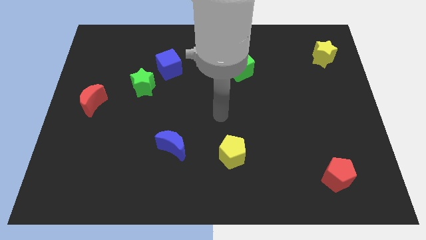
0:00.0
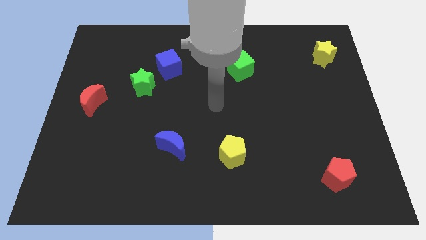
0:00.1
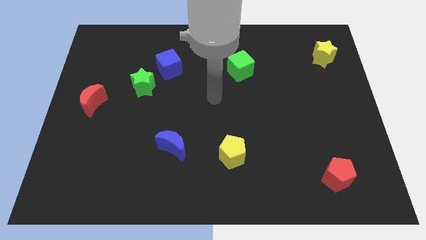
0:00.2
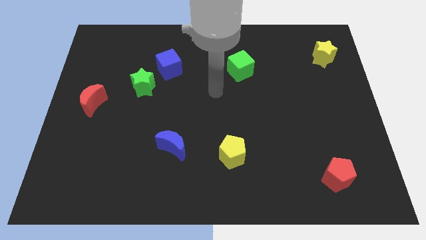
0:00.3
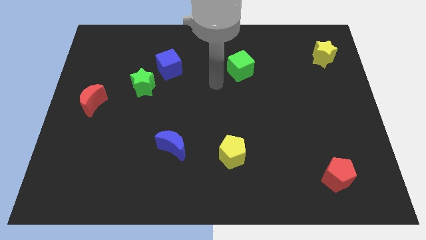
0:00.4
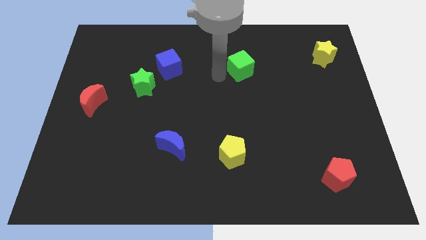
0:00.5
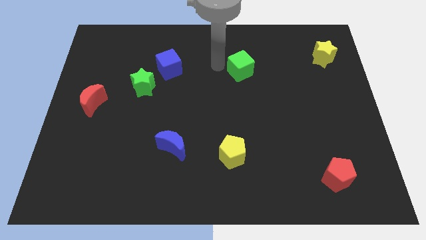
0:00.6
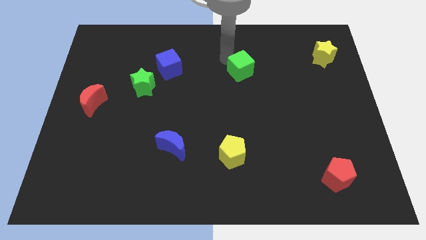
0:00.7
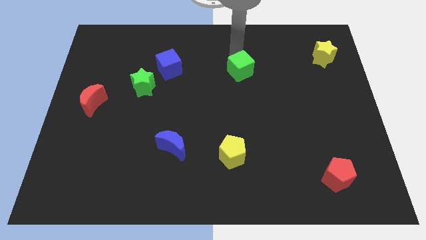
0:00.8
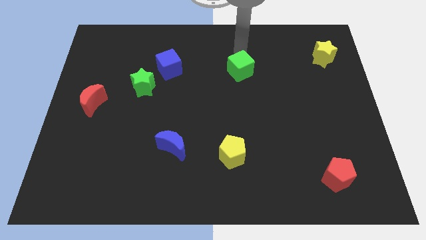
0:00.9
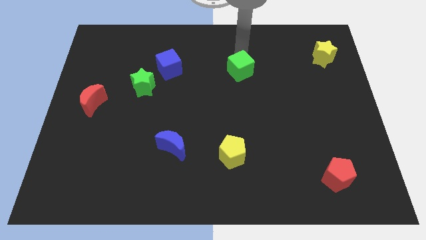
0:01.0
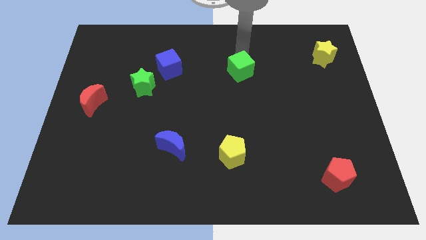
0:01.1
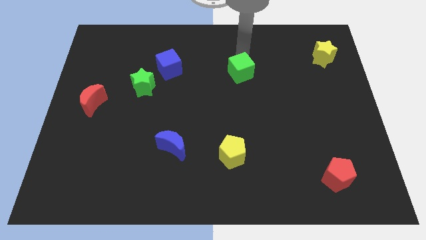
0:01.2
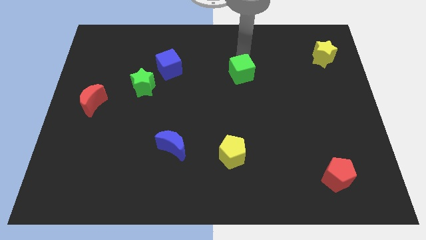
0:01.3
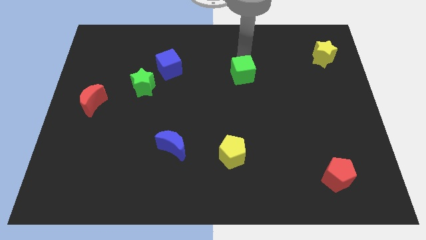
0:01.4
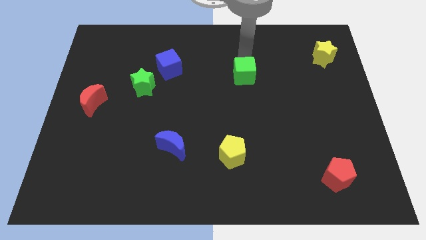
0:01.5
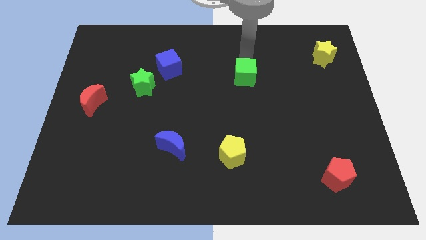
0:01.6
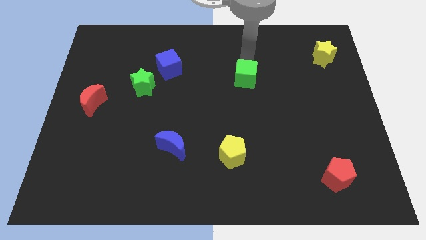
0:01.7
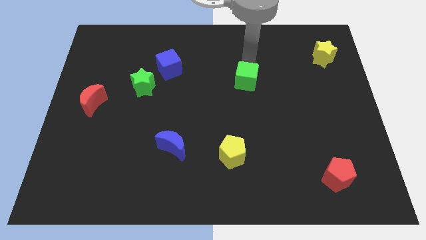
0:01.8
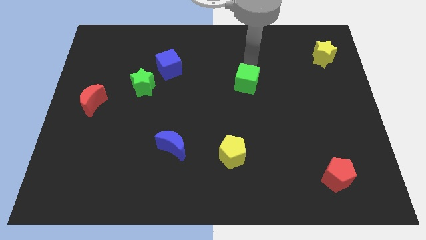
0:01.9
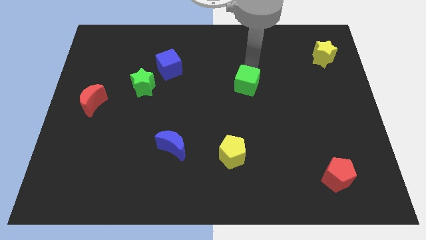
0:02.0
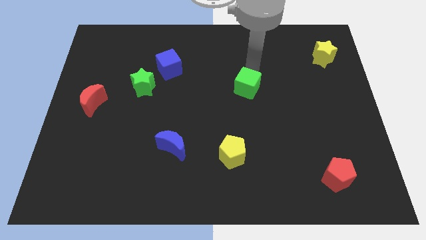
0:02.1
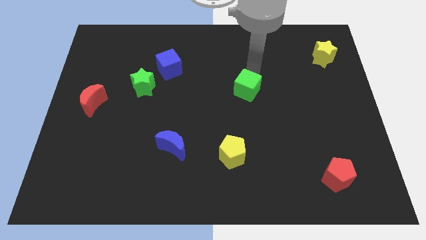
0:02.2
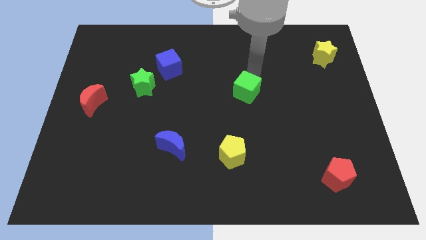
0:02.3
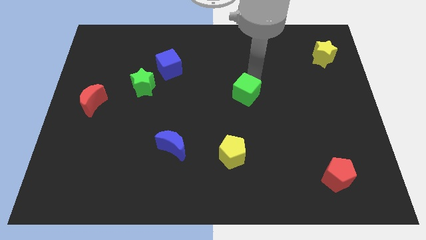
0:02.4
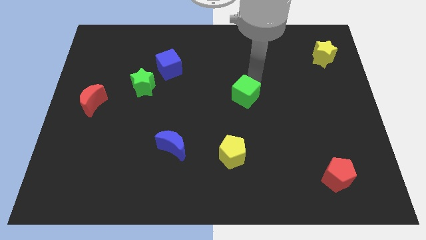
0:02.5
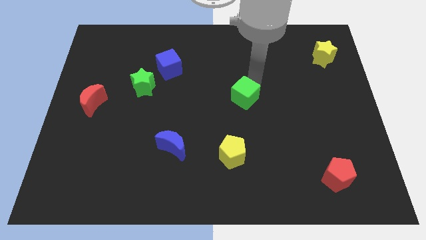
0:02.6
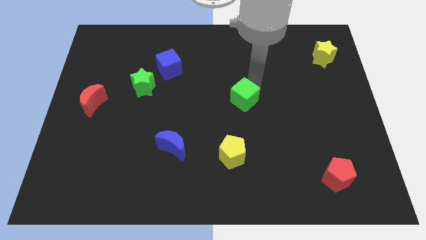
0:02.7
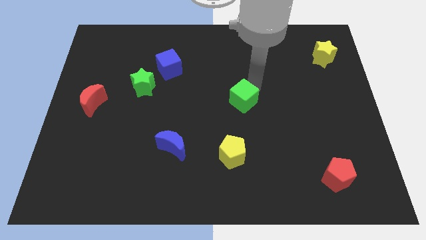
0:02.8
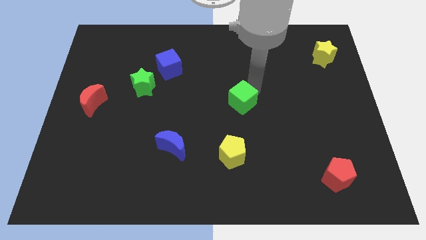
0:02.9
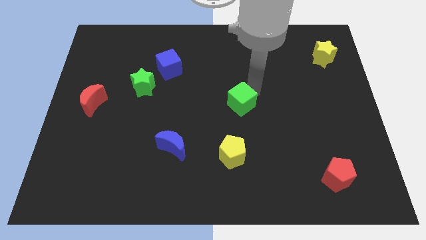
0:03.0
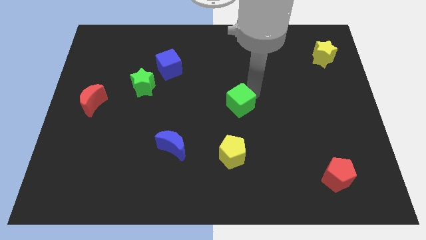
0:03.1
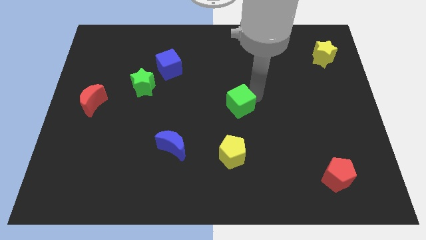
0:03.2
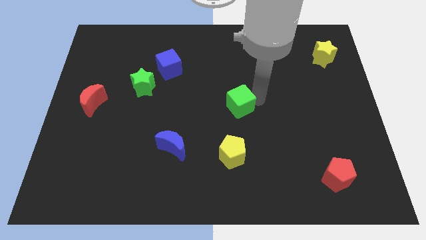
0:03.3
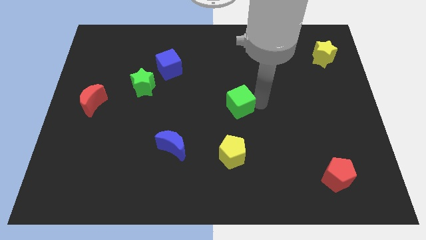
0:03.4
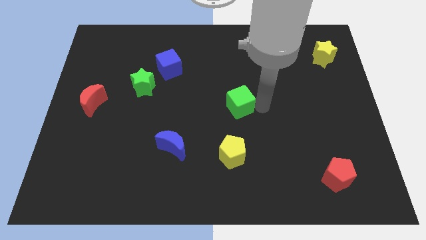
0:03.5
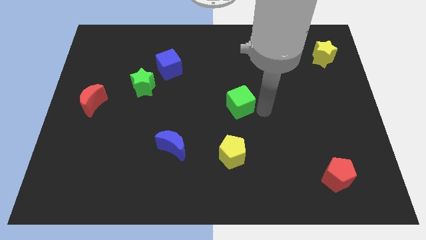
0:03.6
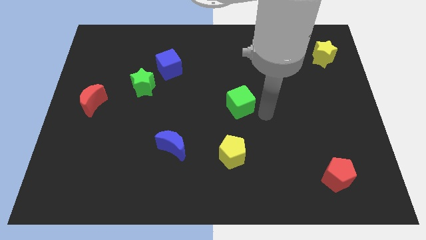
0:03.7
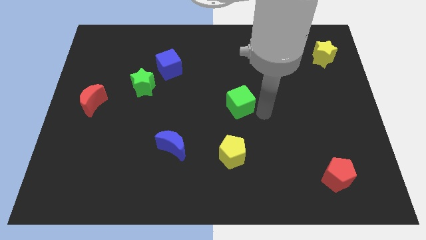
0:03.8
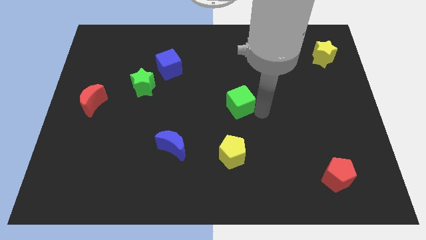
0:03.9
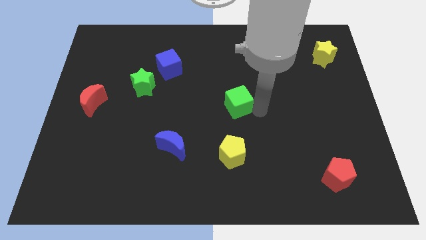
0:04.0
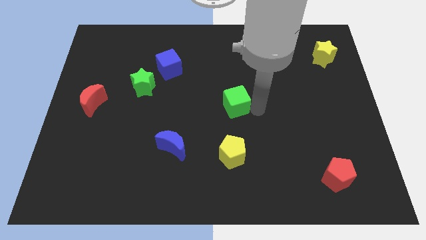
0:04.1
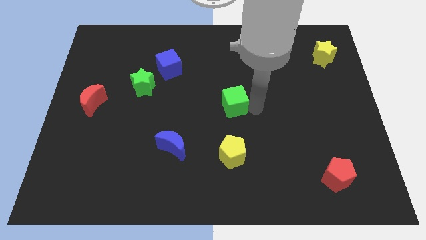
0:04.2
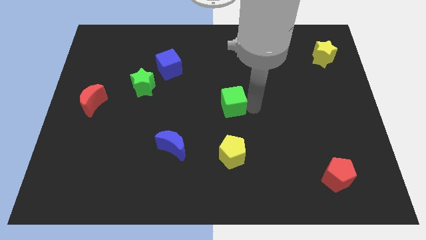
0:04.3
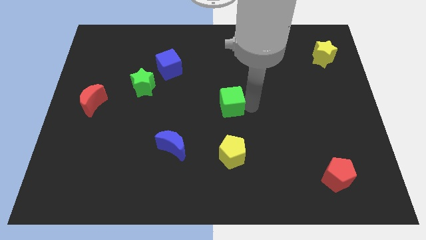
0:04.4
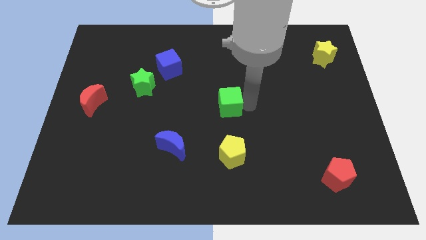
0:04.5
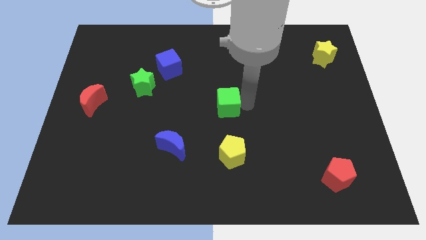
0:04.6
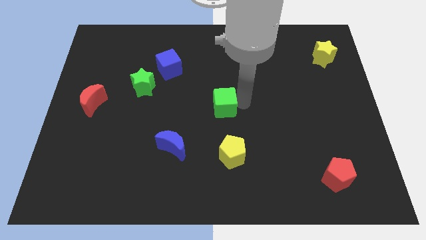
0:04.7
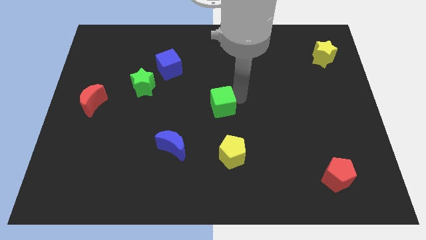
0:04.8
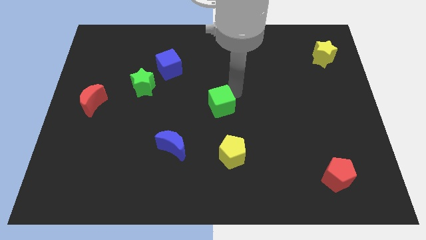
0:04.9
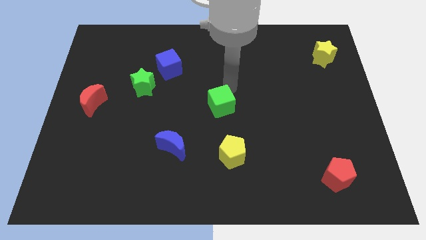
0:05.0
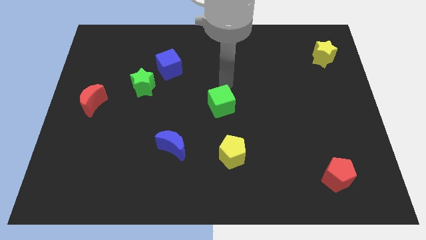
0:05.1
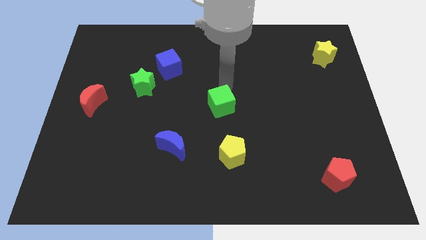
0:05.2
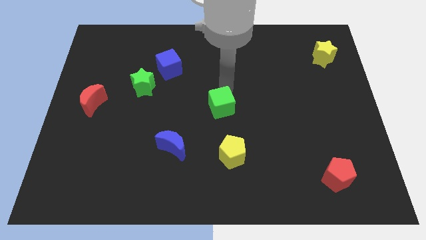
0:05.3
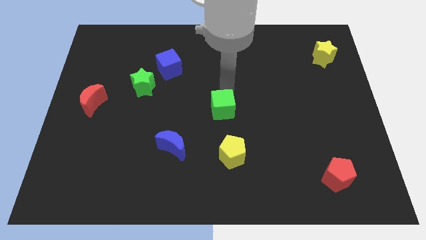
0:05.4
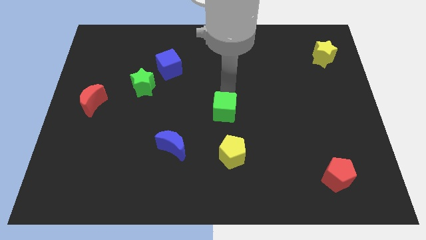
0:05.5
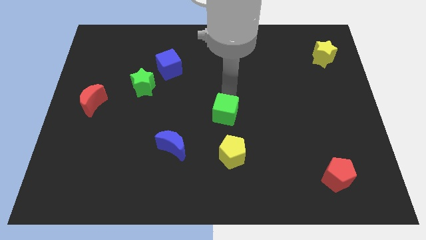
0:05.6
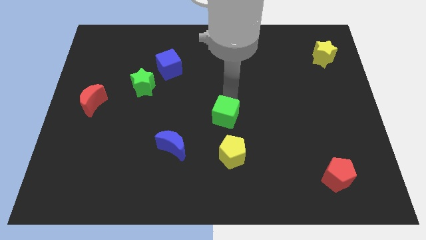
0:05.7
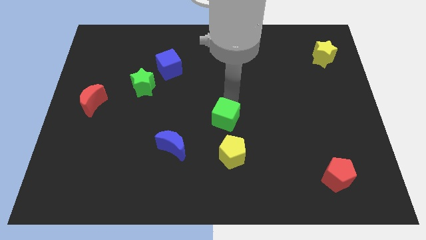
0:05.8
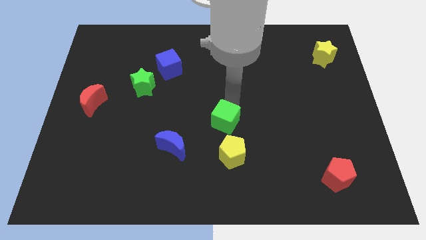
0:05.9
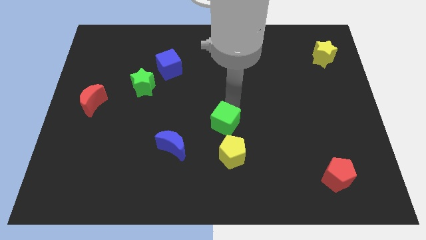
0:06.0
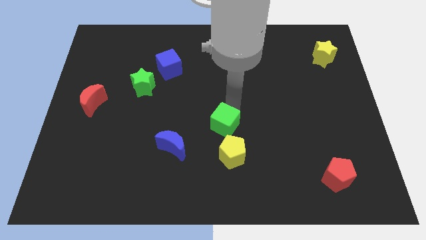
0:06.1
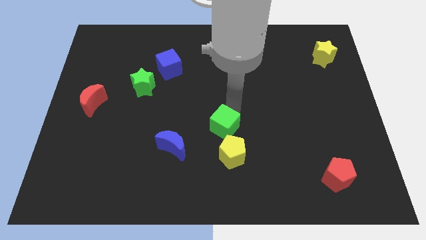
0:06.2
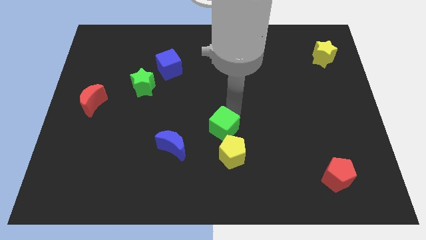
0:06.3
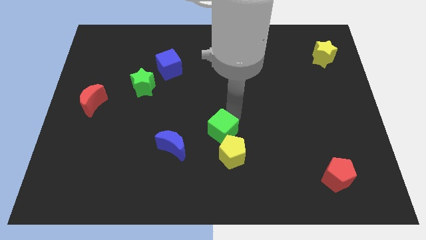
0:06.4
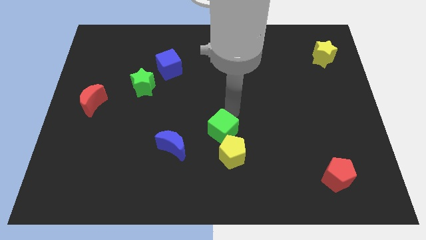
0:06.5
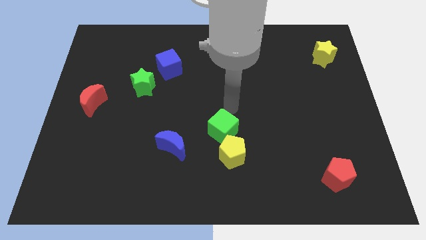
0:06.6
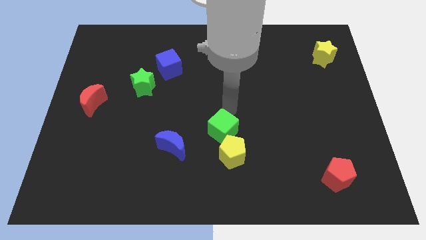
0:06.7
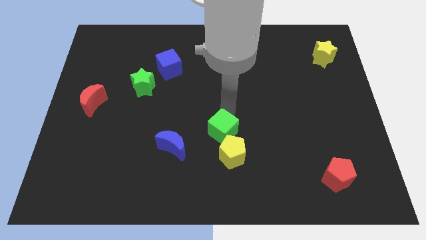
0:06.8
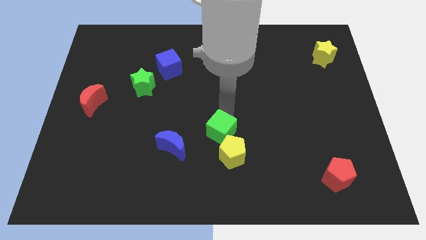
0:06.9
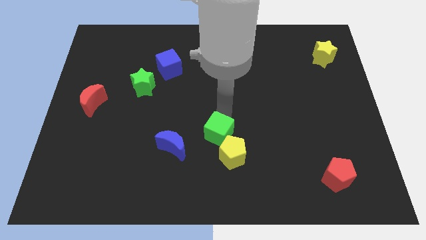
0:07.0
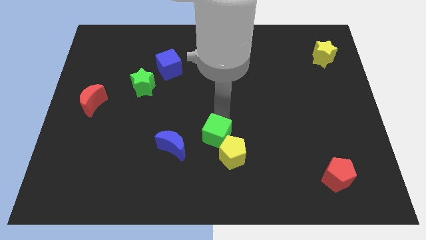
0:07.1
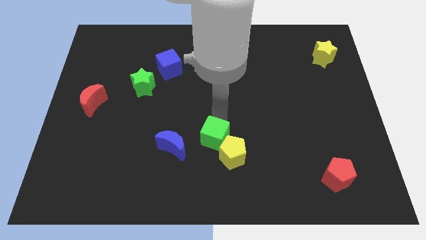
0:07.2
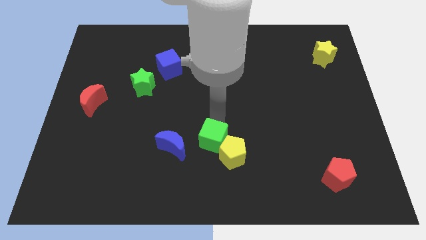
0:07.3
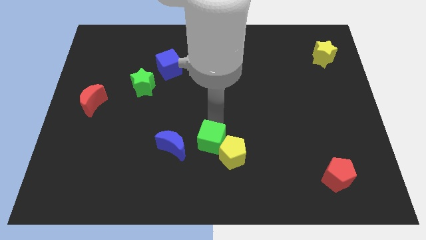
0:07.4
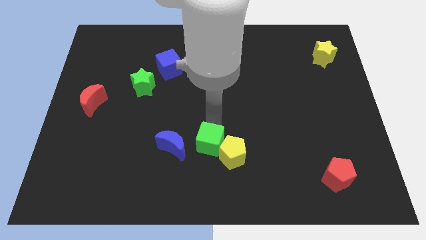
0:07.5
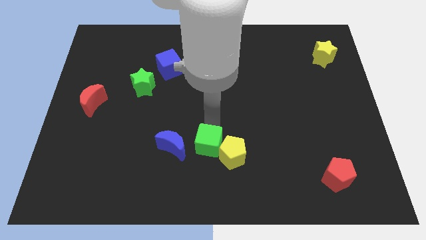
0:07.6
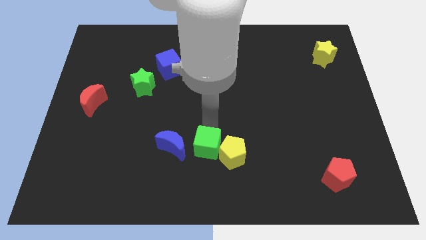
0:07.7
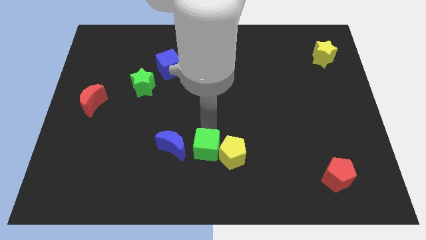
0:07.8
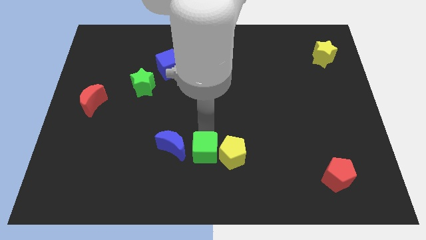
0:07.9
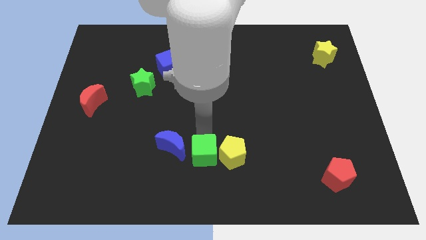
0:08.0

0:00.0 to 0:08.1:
push the green cube to the bottom
